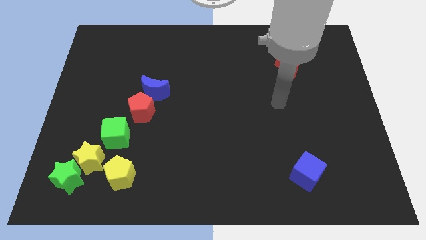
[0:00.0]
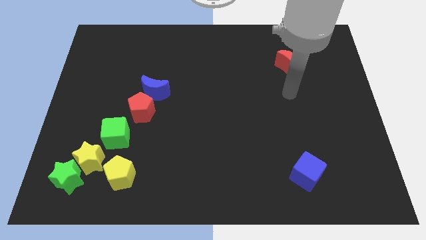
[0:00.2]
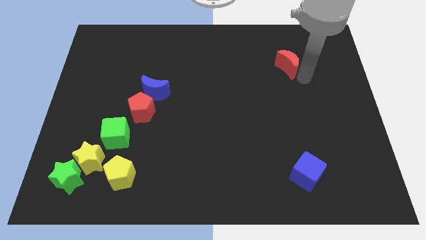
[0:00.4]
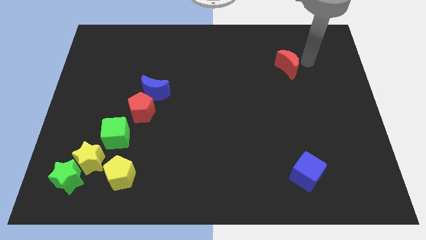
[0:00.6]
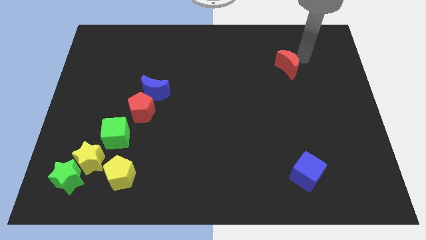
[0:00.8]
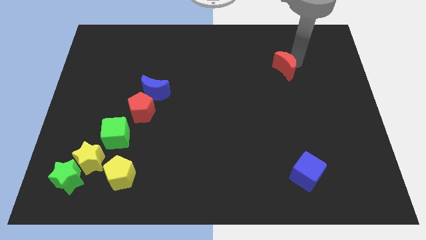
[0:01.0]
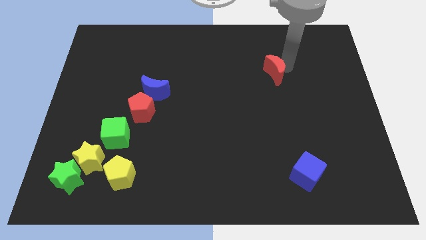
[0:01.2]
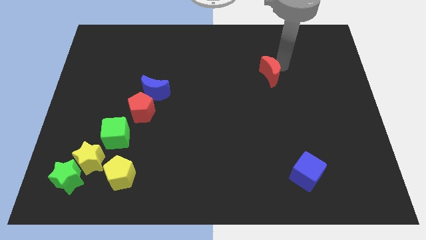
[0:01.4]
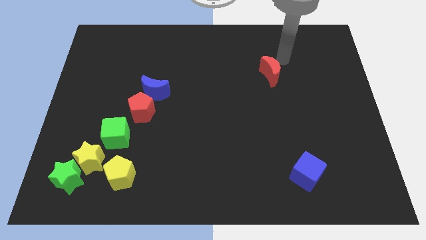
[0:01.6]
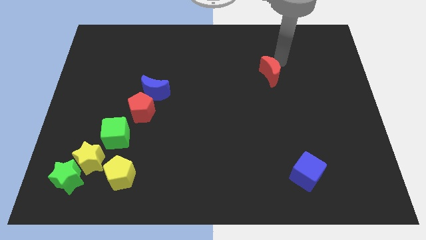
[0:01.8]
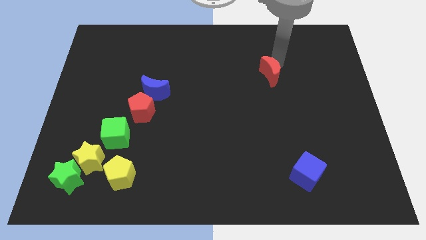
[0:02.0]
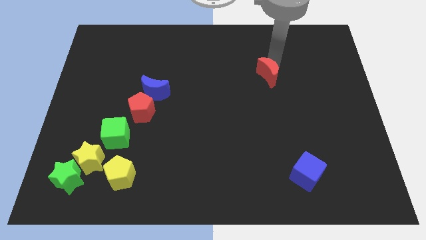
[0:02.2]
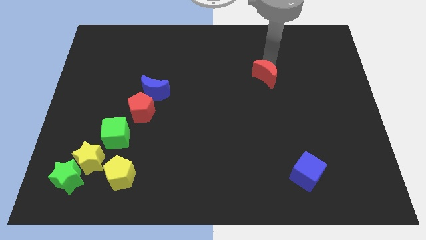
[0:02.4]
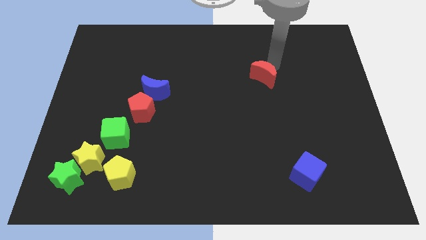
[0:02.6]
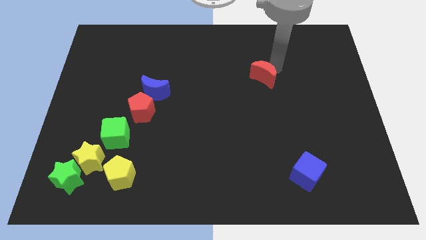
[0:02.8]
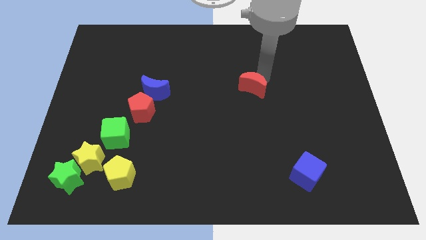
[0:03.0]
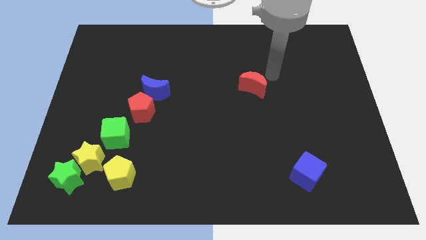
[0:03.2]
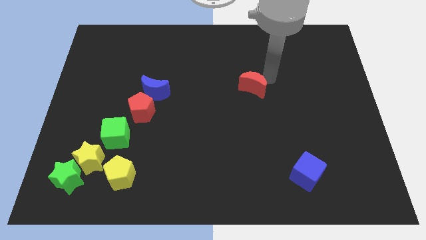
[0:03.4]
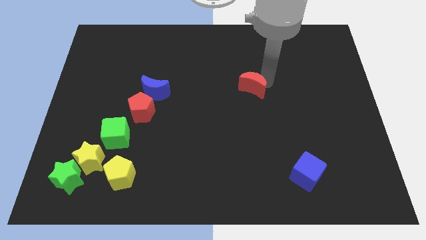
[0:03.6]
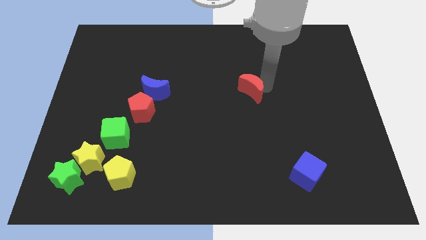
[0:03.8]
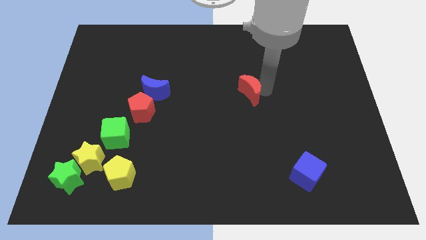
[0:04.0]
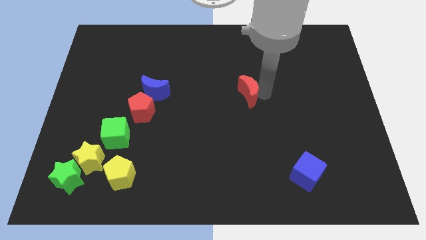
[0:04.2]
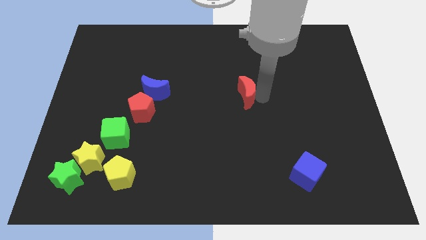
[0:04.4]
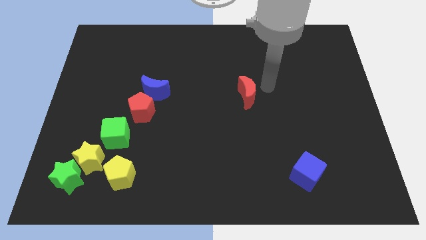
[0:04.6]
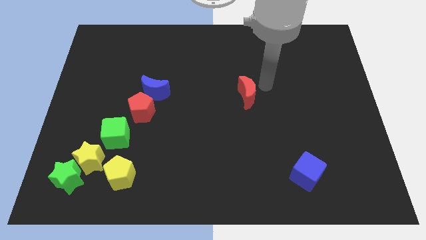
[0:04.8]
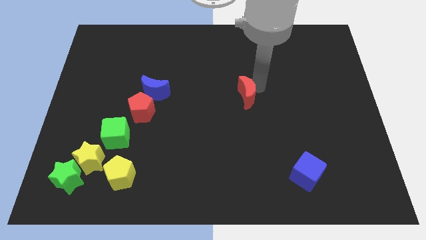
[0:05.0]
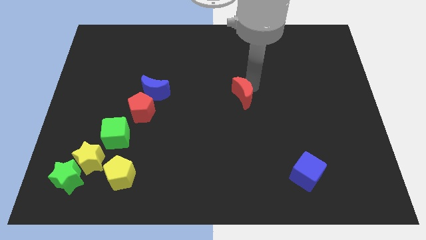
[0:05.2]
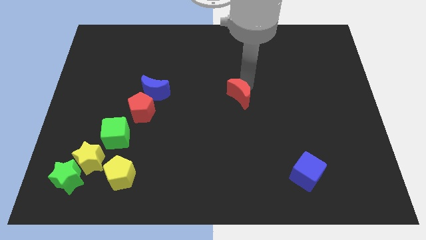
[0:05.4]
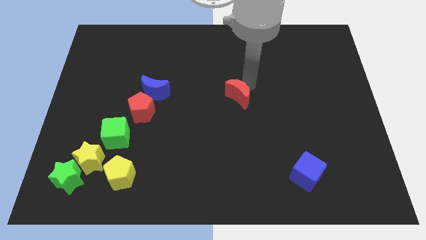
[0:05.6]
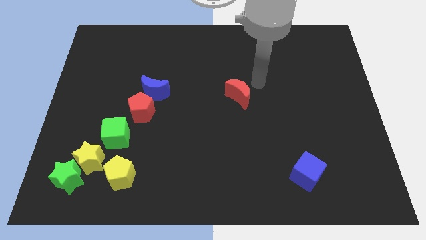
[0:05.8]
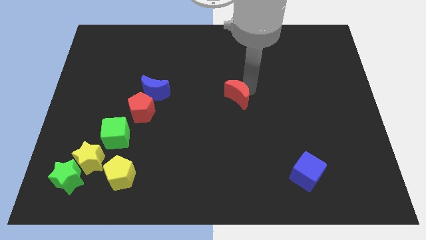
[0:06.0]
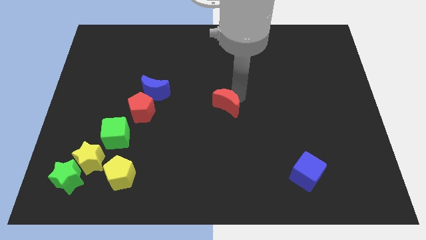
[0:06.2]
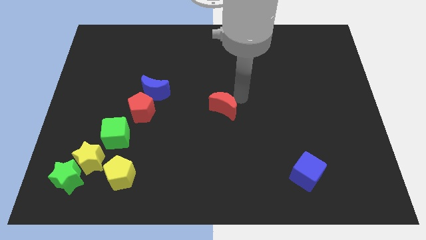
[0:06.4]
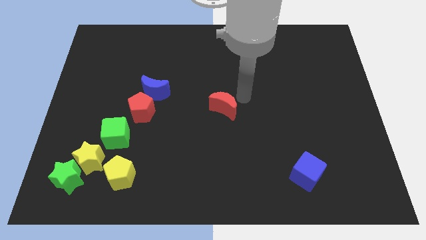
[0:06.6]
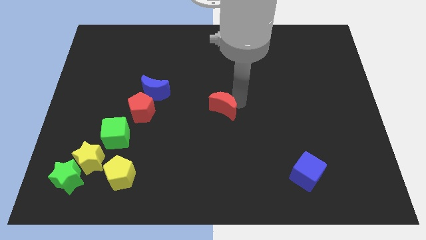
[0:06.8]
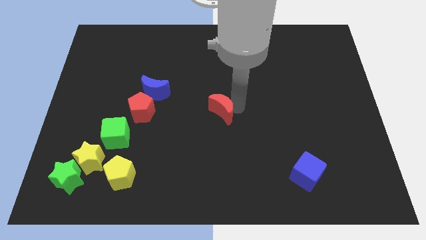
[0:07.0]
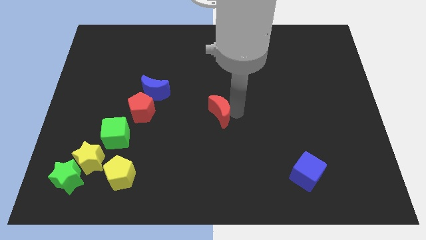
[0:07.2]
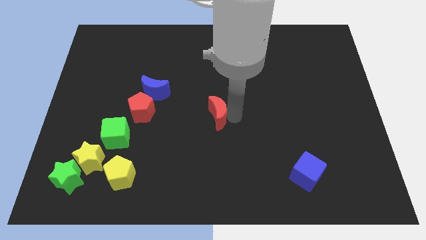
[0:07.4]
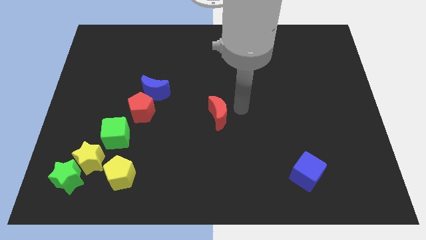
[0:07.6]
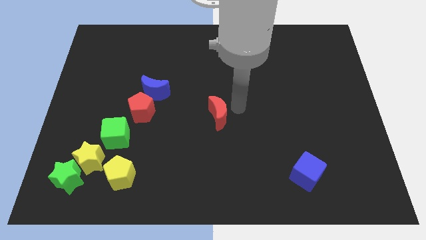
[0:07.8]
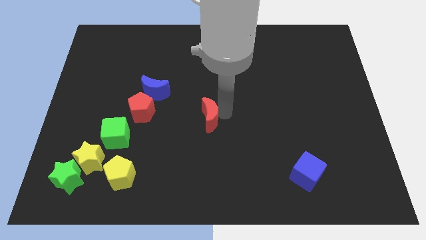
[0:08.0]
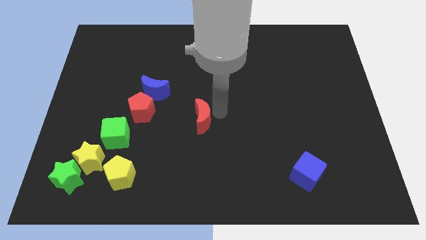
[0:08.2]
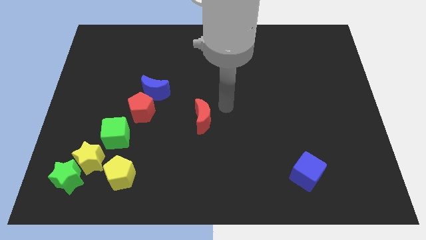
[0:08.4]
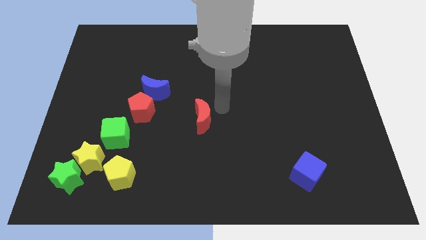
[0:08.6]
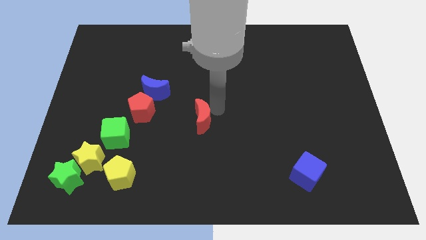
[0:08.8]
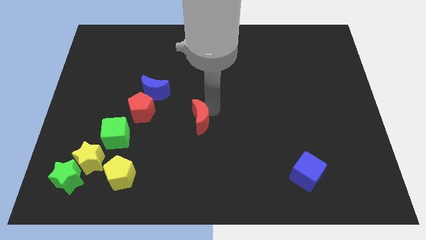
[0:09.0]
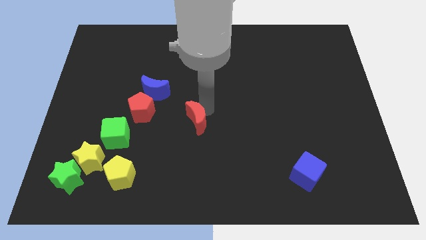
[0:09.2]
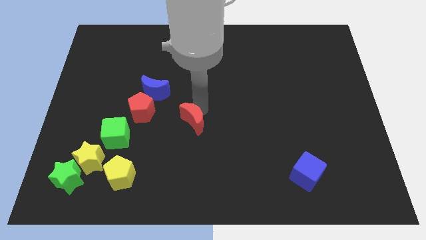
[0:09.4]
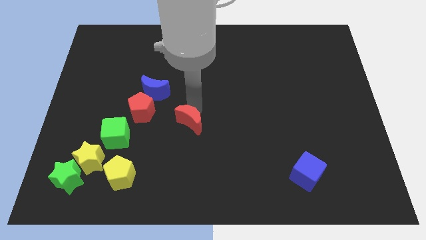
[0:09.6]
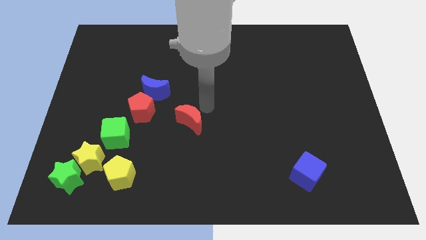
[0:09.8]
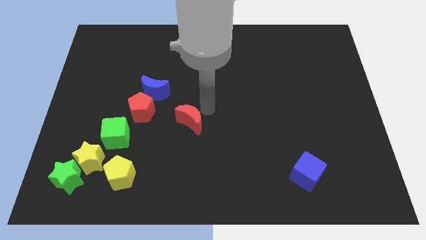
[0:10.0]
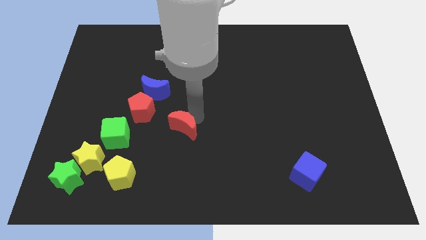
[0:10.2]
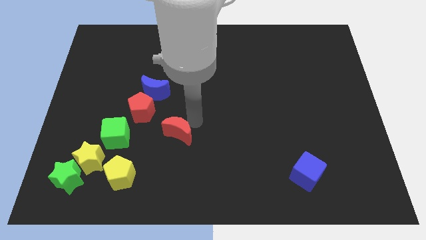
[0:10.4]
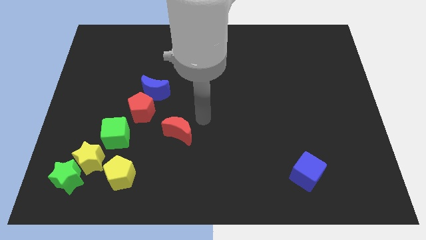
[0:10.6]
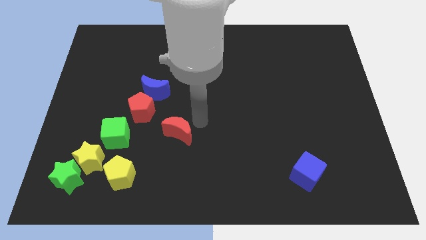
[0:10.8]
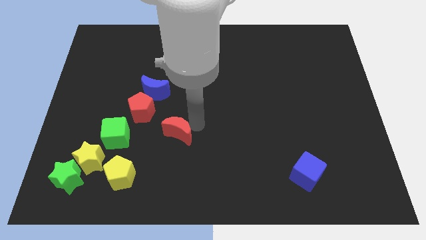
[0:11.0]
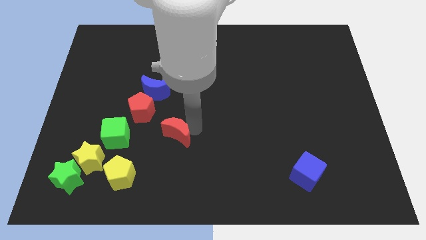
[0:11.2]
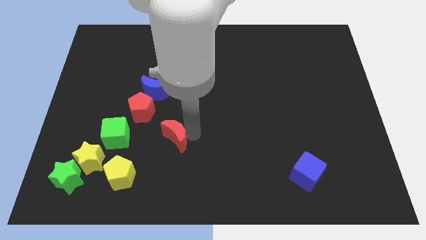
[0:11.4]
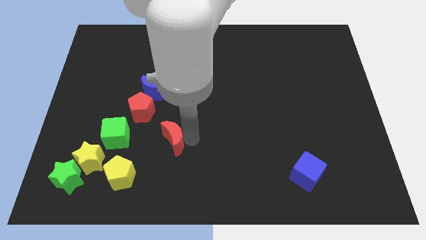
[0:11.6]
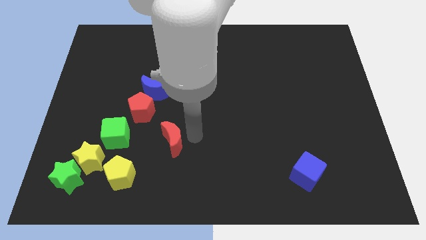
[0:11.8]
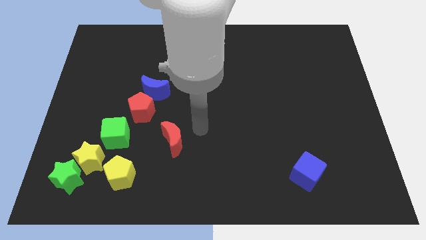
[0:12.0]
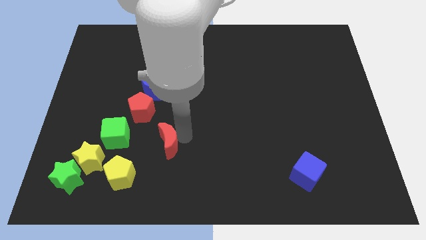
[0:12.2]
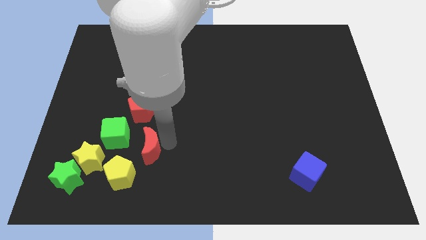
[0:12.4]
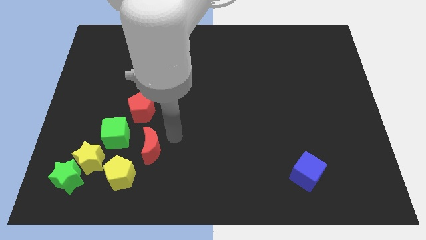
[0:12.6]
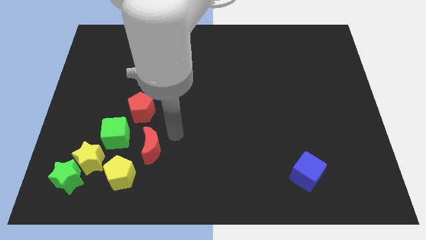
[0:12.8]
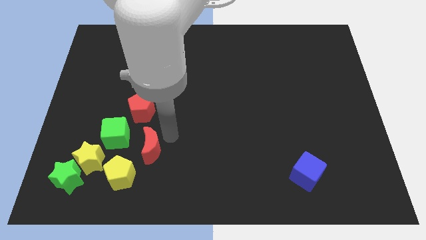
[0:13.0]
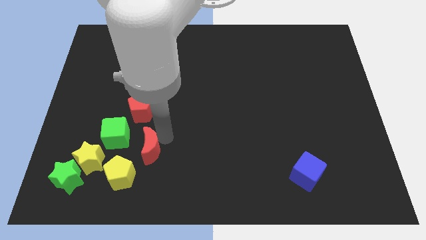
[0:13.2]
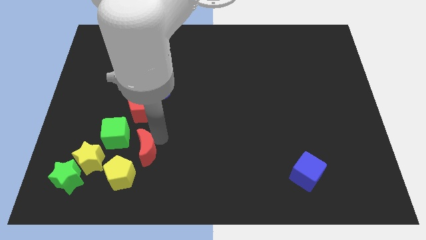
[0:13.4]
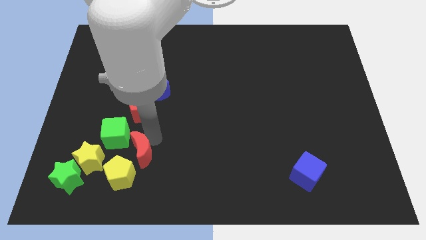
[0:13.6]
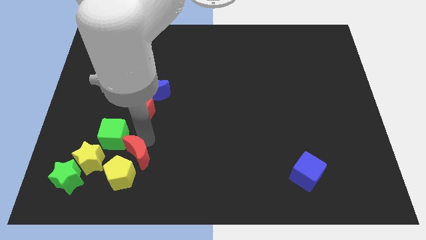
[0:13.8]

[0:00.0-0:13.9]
put the red moon next to the yellow pentagon
